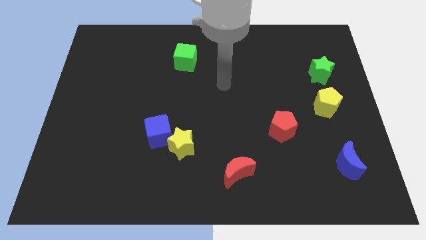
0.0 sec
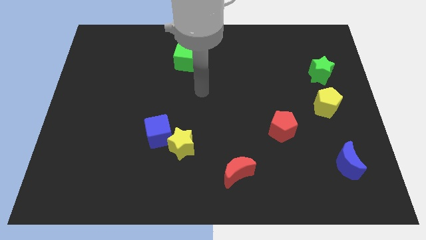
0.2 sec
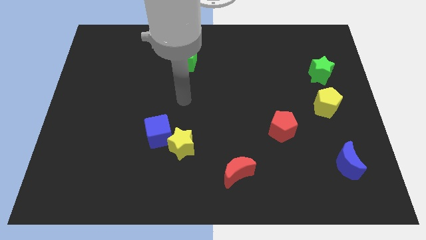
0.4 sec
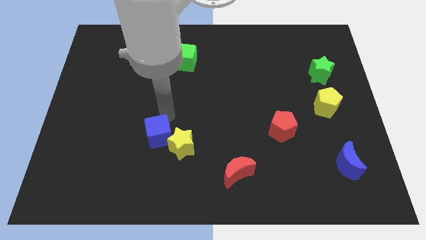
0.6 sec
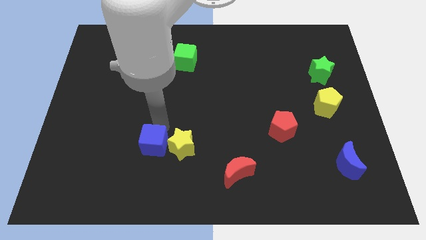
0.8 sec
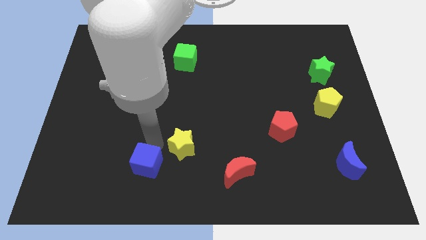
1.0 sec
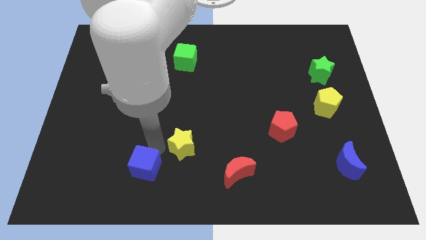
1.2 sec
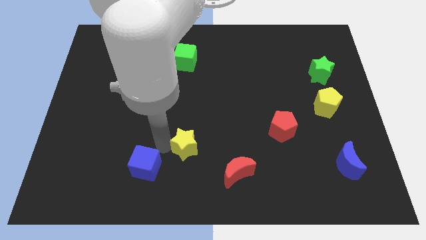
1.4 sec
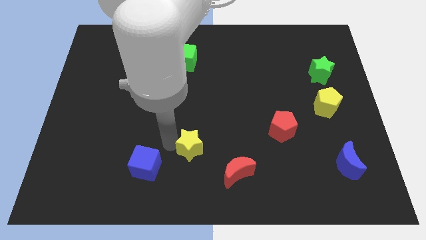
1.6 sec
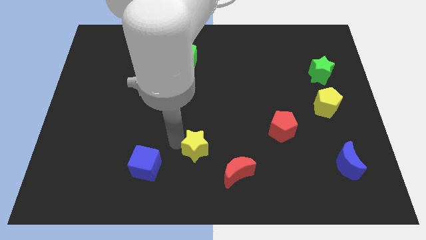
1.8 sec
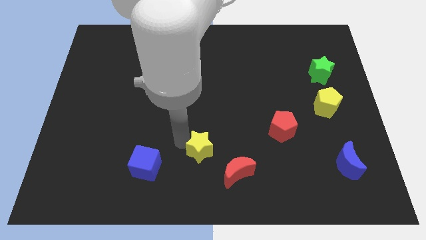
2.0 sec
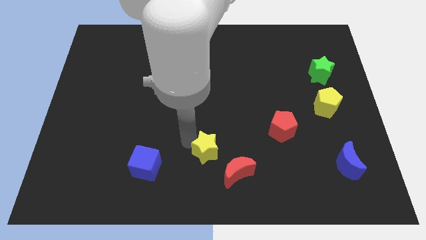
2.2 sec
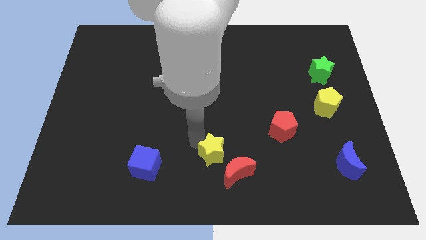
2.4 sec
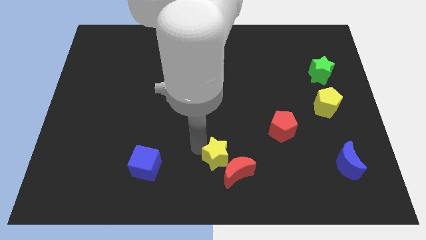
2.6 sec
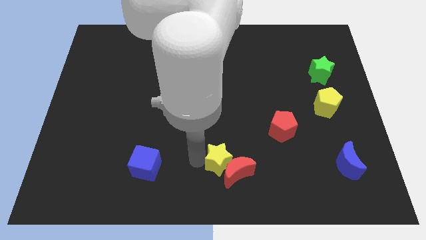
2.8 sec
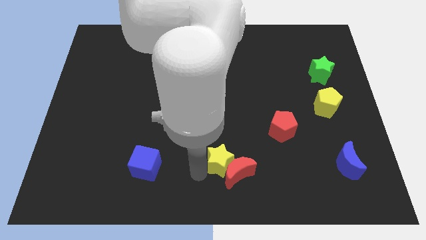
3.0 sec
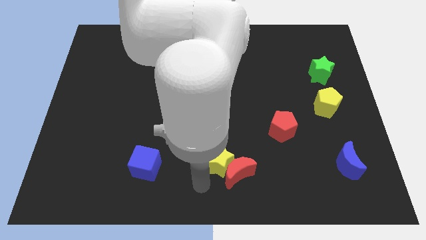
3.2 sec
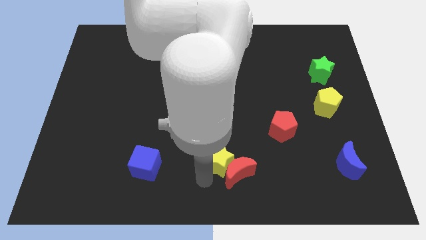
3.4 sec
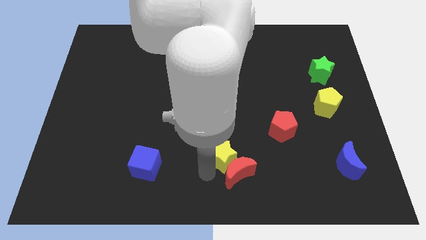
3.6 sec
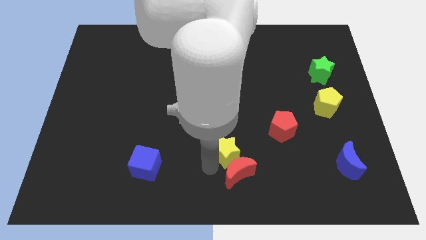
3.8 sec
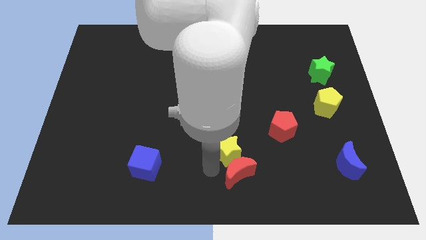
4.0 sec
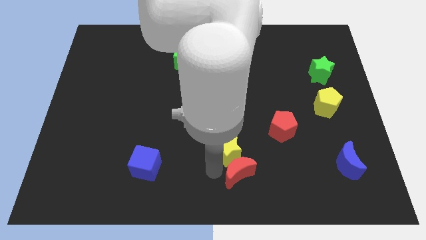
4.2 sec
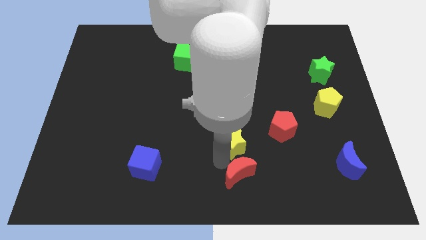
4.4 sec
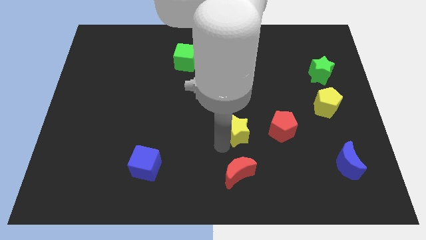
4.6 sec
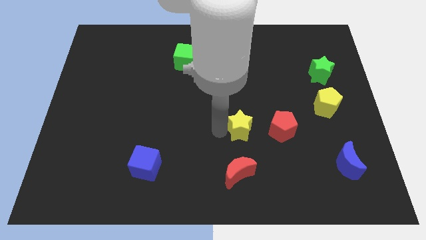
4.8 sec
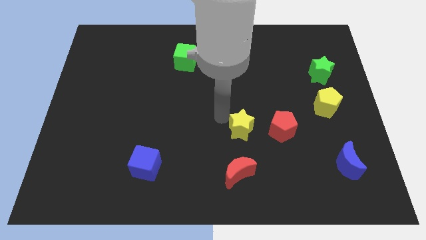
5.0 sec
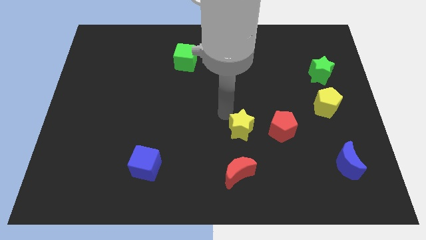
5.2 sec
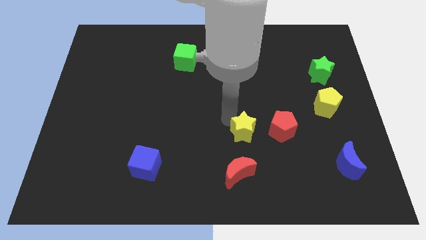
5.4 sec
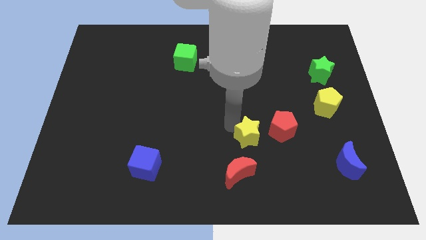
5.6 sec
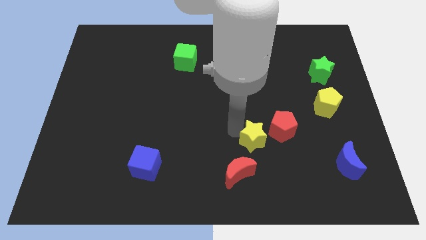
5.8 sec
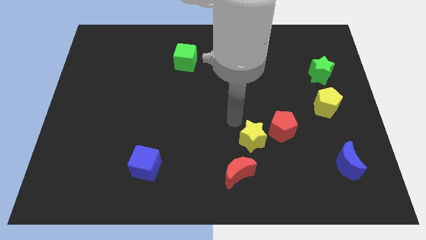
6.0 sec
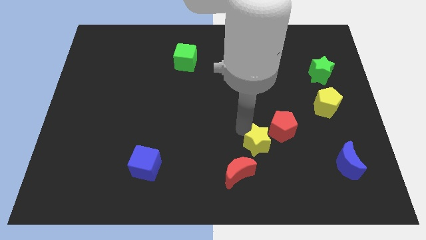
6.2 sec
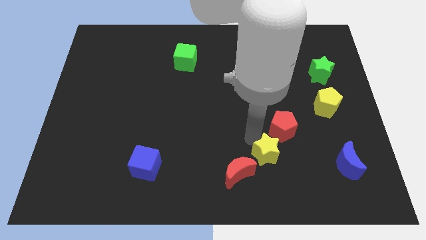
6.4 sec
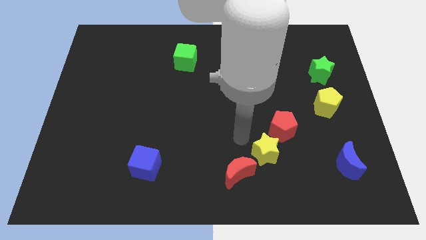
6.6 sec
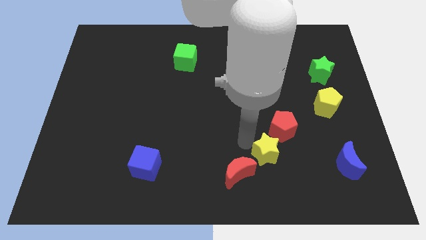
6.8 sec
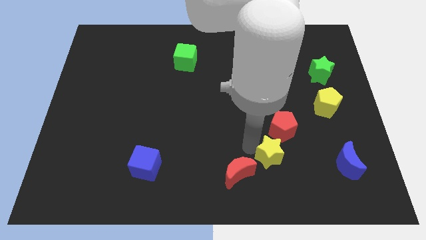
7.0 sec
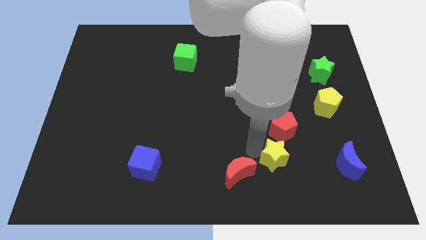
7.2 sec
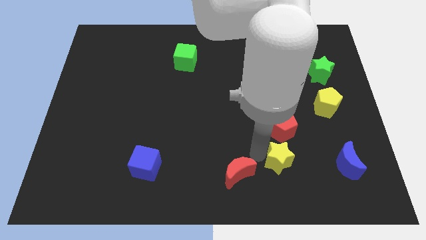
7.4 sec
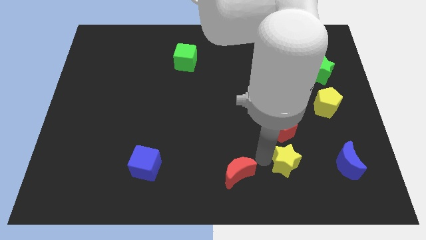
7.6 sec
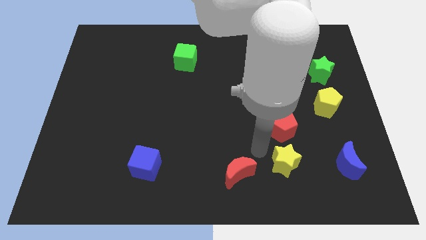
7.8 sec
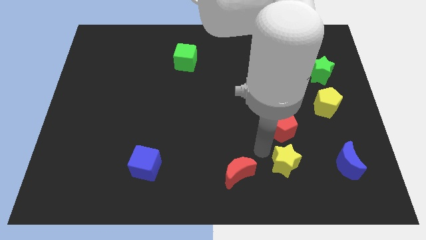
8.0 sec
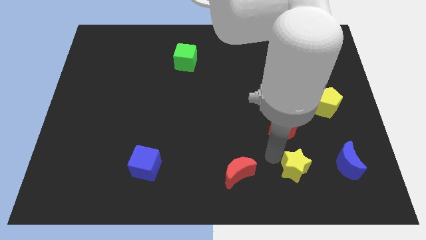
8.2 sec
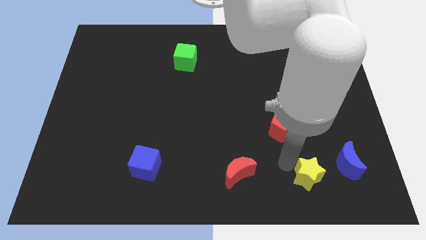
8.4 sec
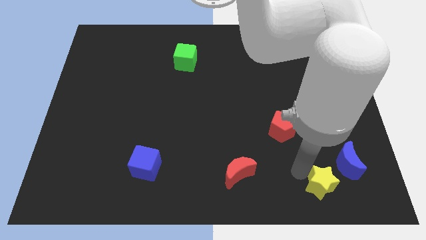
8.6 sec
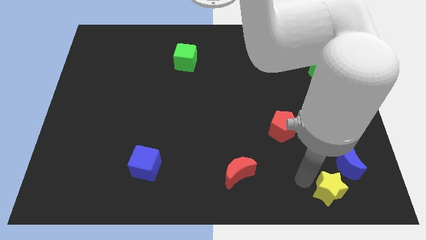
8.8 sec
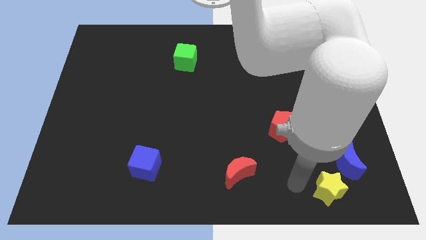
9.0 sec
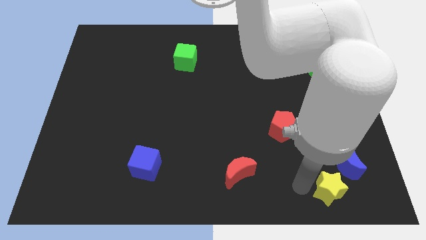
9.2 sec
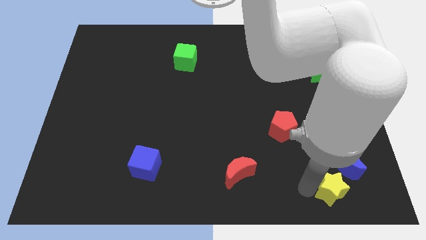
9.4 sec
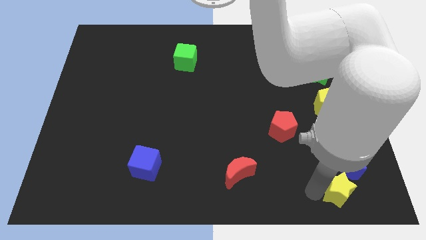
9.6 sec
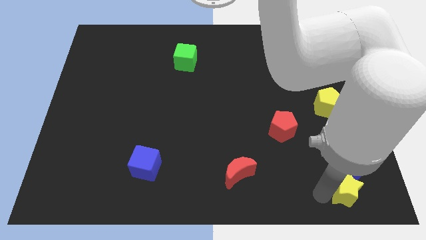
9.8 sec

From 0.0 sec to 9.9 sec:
push the yellow star to the bottom right

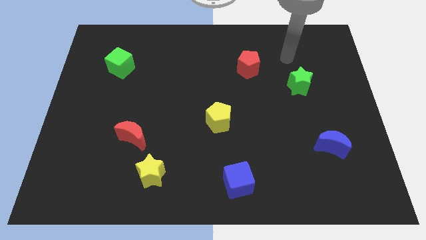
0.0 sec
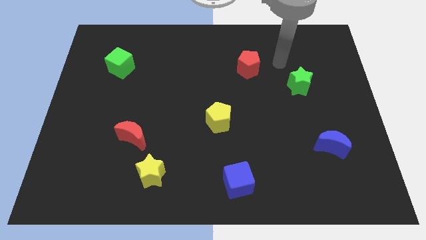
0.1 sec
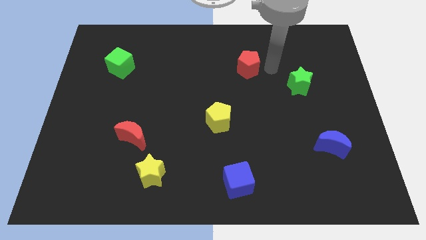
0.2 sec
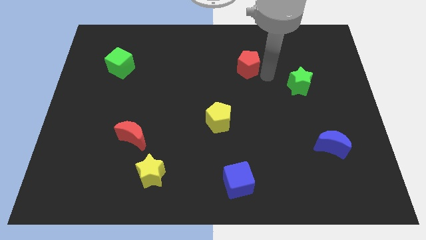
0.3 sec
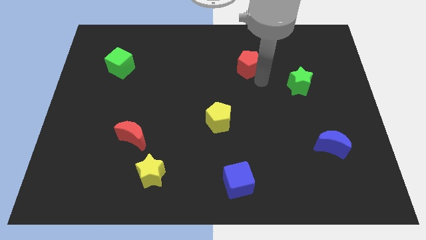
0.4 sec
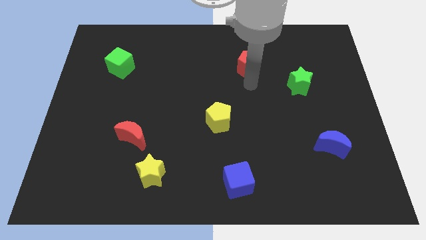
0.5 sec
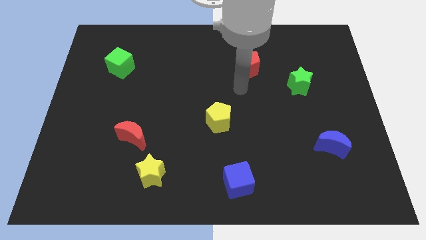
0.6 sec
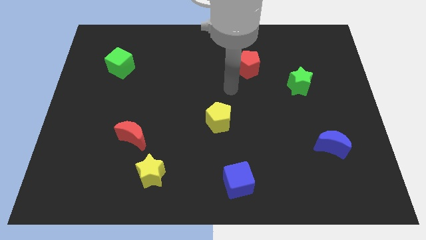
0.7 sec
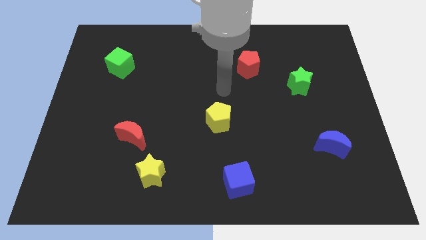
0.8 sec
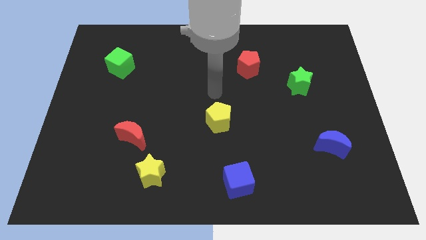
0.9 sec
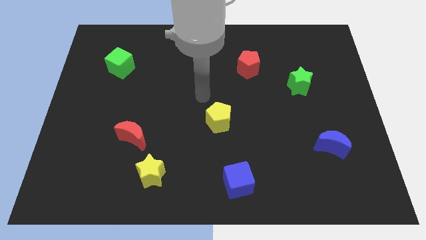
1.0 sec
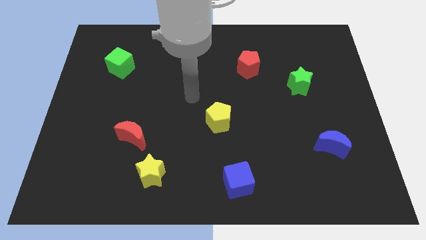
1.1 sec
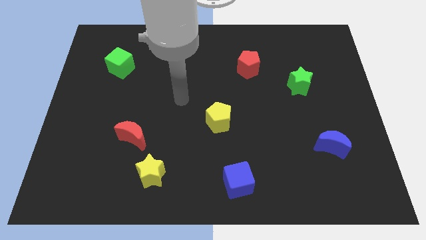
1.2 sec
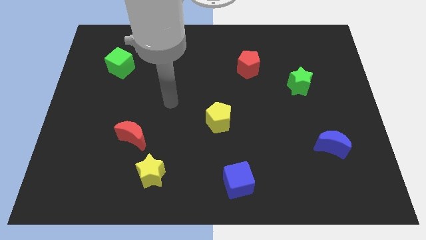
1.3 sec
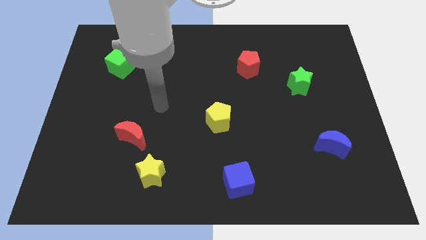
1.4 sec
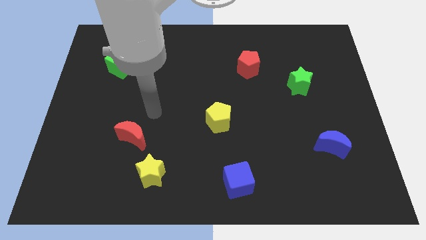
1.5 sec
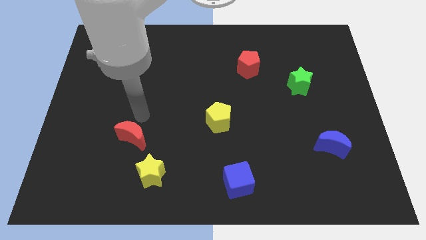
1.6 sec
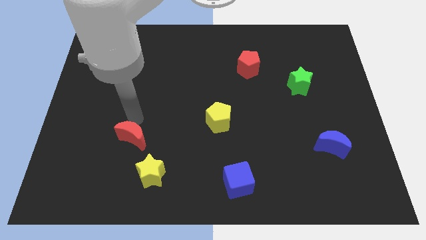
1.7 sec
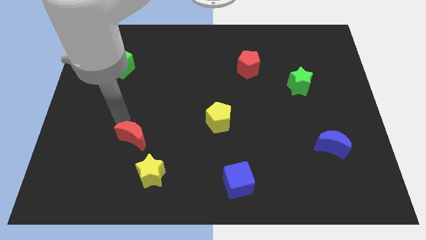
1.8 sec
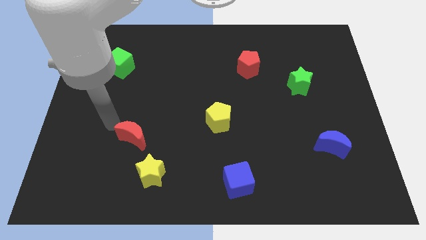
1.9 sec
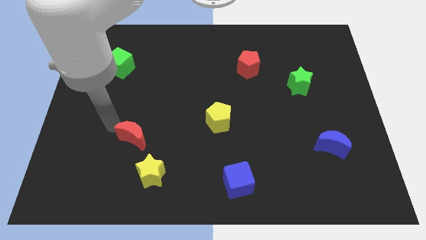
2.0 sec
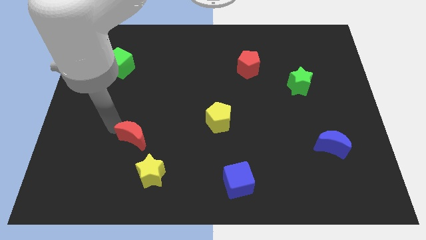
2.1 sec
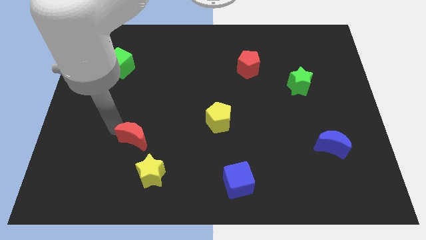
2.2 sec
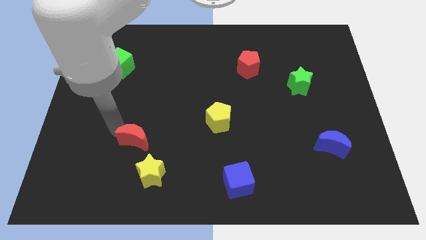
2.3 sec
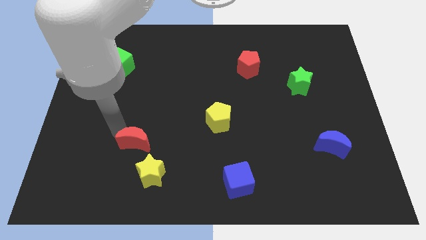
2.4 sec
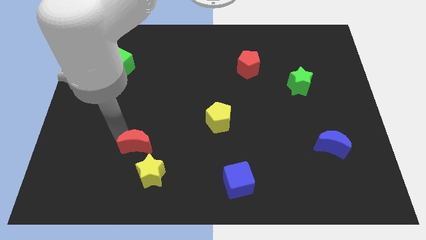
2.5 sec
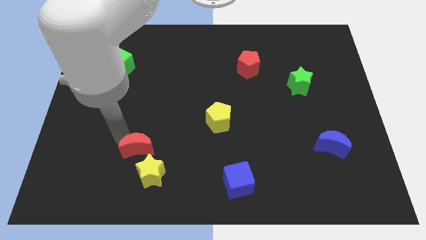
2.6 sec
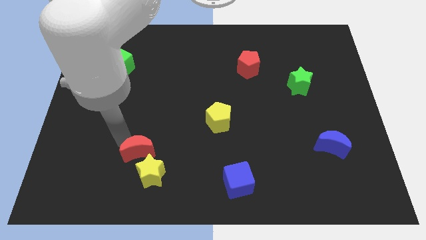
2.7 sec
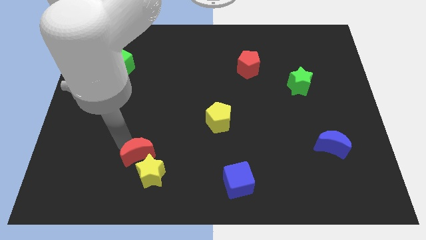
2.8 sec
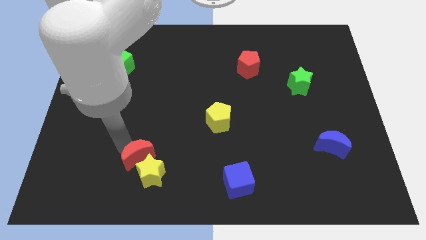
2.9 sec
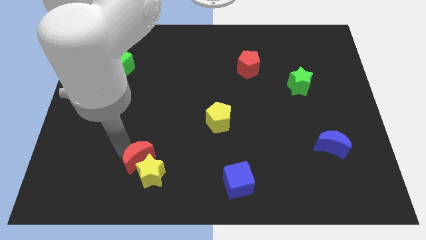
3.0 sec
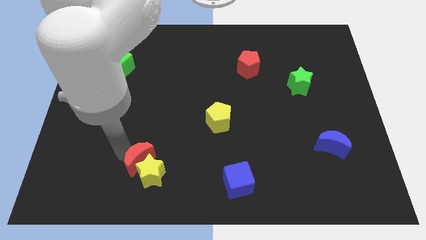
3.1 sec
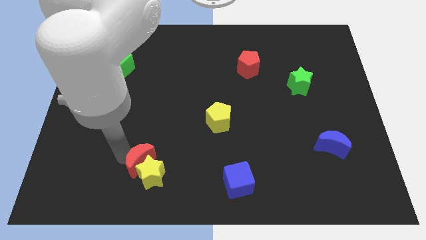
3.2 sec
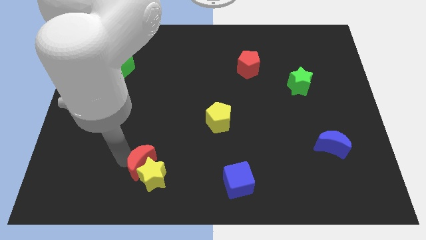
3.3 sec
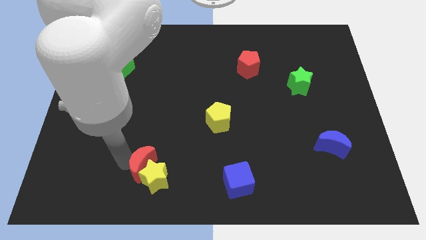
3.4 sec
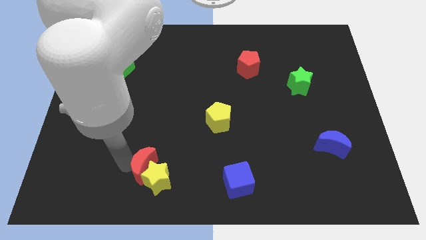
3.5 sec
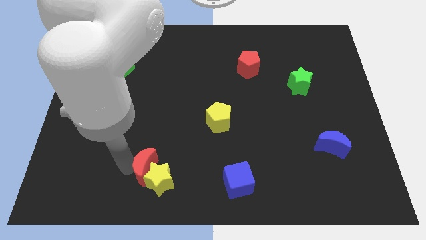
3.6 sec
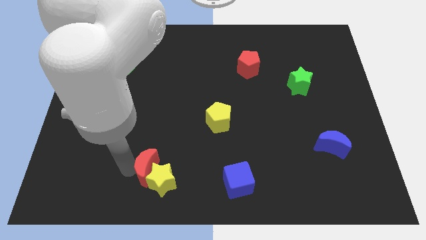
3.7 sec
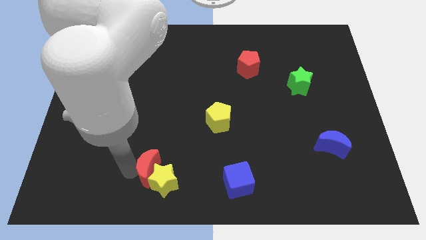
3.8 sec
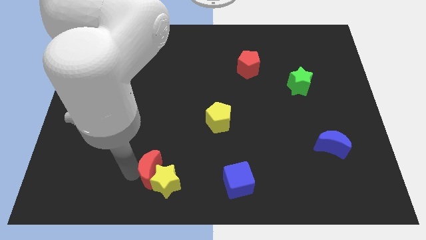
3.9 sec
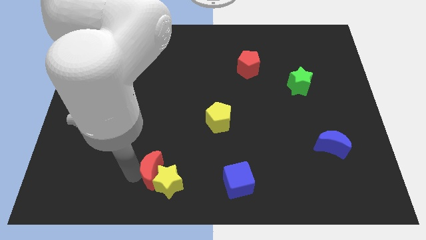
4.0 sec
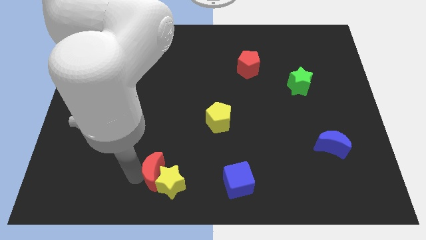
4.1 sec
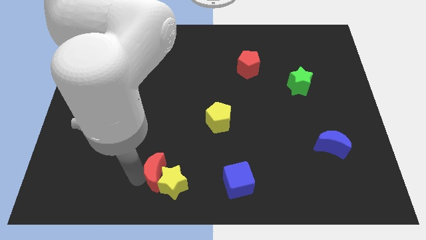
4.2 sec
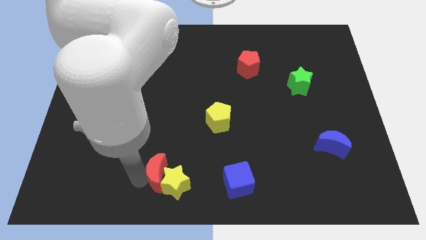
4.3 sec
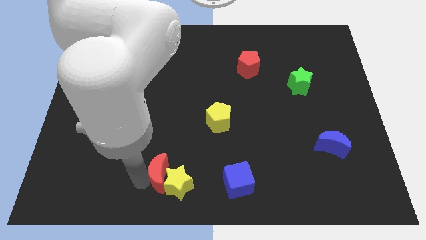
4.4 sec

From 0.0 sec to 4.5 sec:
move the red moon to the bottom side
